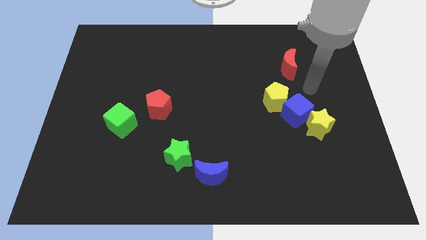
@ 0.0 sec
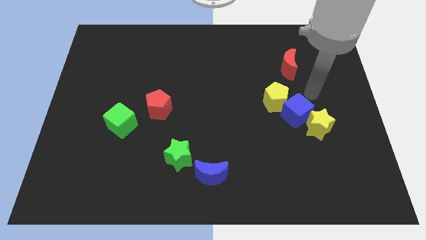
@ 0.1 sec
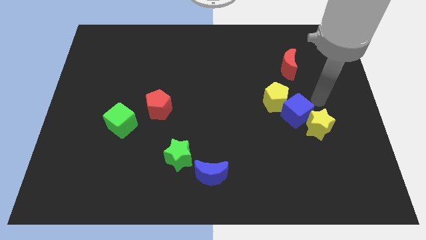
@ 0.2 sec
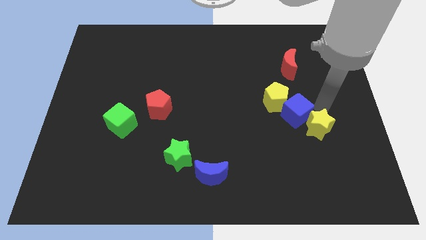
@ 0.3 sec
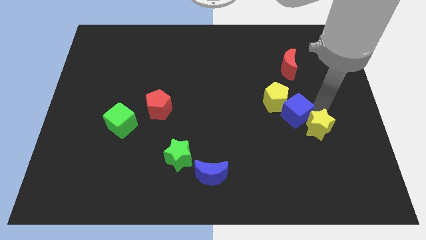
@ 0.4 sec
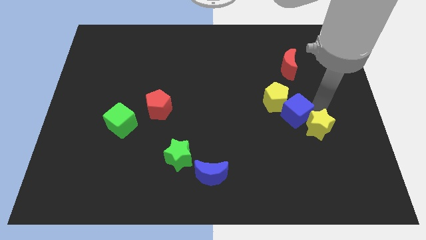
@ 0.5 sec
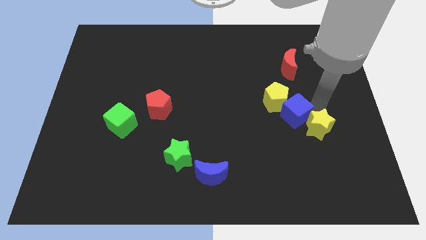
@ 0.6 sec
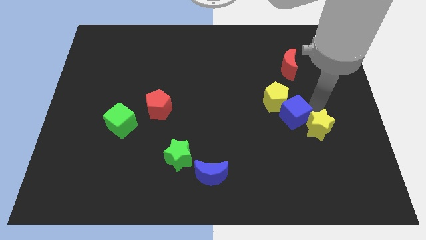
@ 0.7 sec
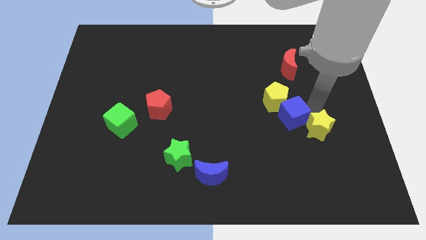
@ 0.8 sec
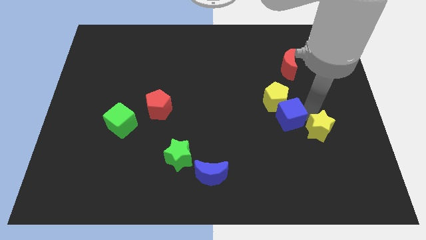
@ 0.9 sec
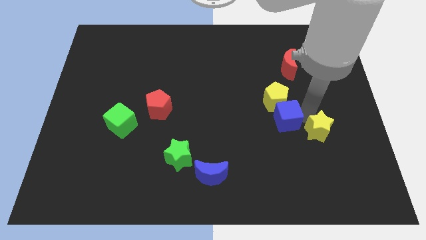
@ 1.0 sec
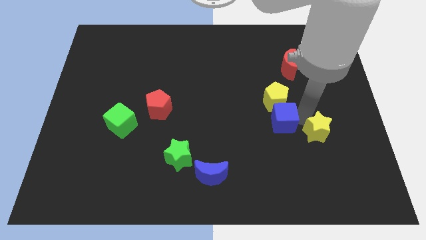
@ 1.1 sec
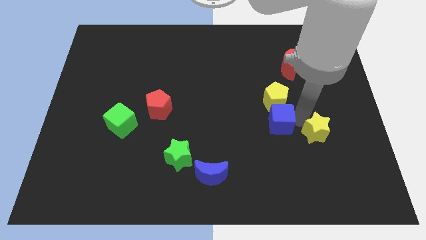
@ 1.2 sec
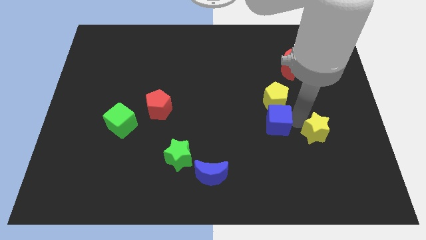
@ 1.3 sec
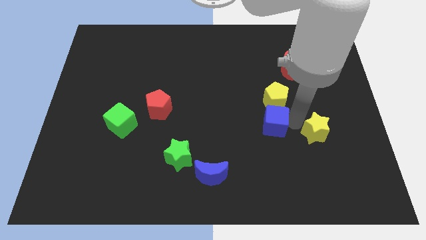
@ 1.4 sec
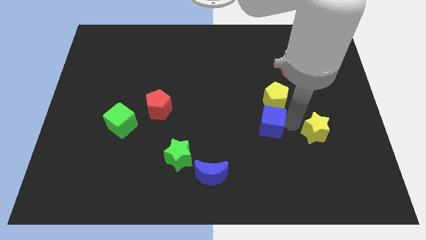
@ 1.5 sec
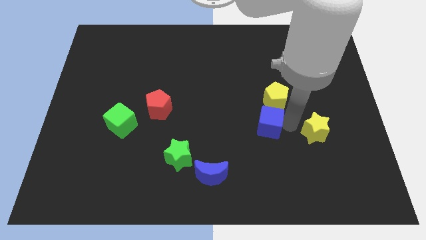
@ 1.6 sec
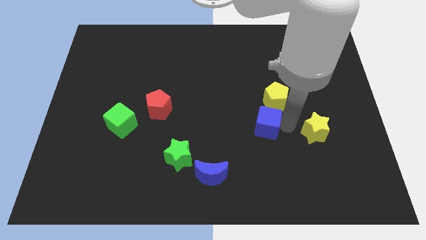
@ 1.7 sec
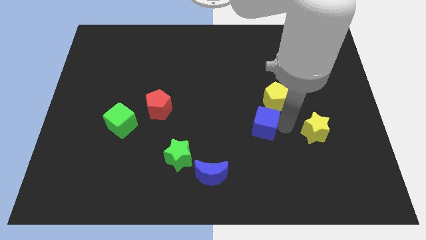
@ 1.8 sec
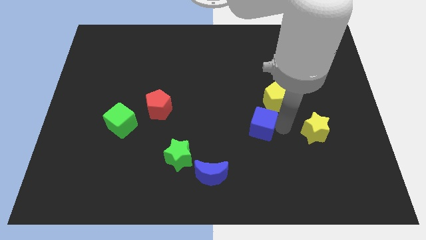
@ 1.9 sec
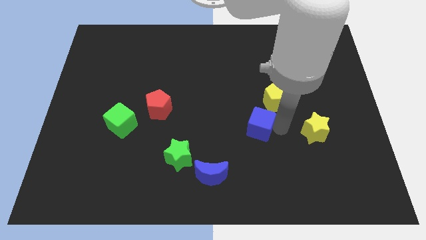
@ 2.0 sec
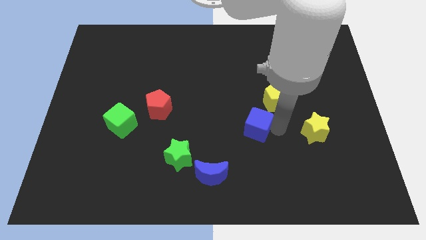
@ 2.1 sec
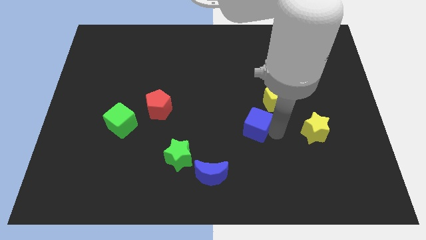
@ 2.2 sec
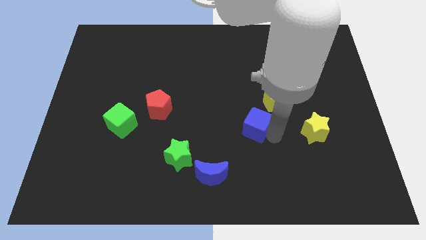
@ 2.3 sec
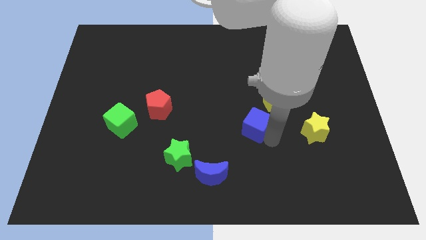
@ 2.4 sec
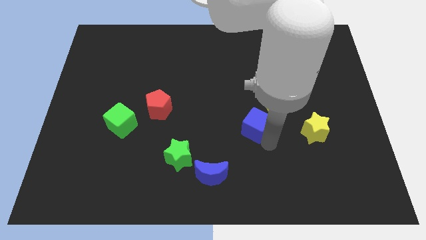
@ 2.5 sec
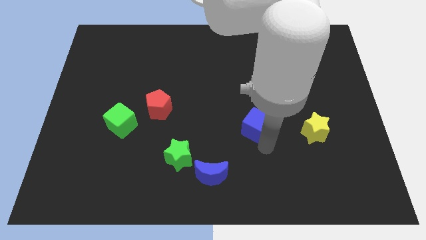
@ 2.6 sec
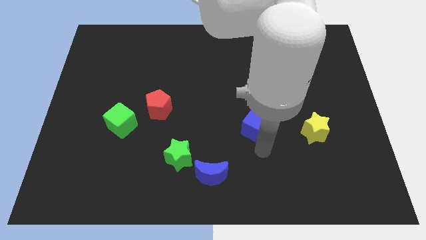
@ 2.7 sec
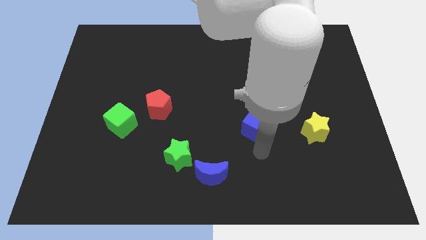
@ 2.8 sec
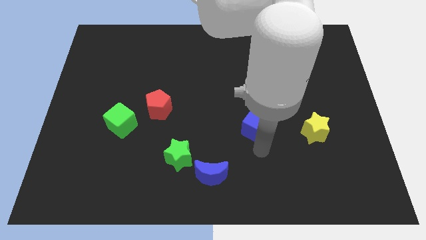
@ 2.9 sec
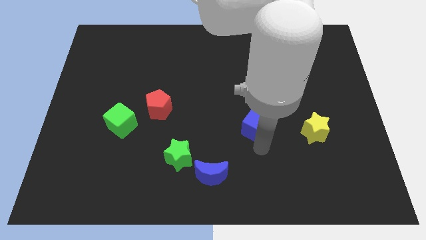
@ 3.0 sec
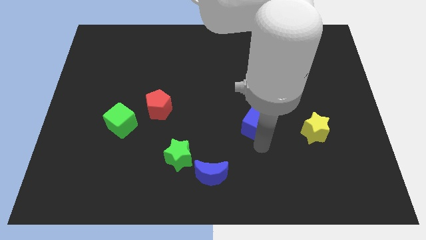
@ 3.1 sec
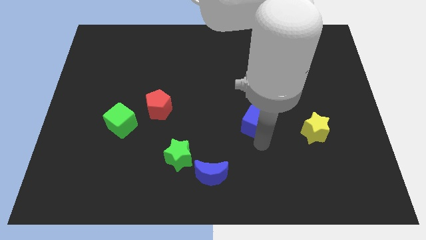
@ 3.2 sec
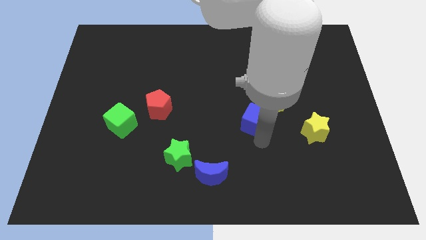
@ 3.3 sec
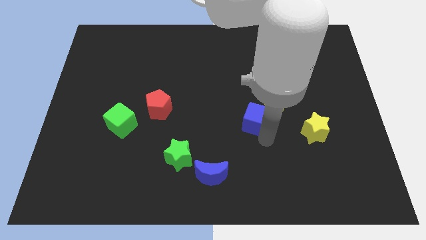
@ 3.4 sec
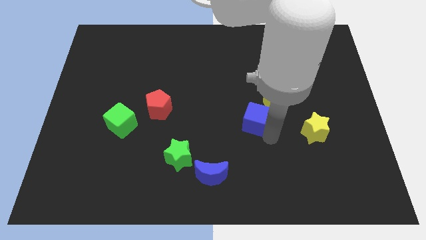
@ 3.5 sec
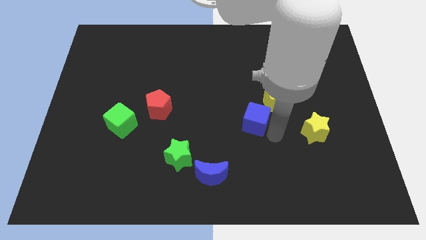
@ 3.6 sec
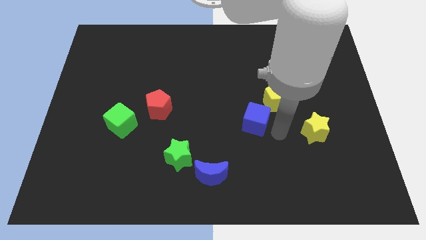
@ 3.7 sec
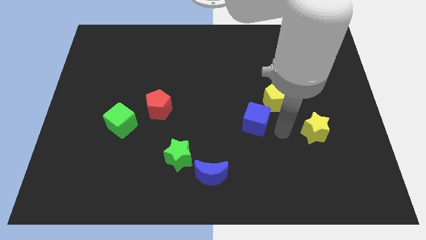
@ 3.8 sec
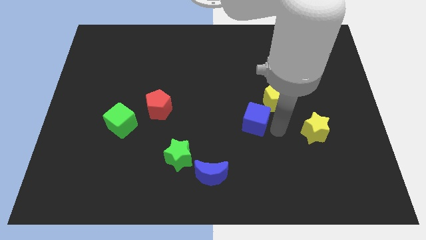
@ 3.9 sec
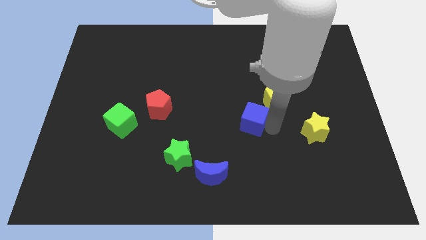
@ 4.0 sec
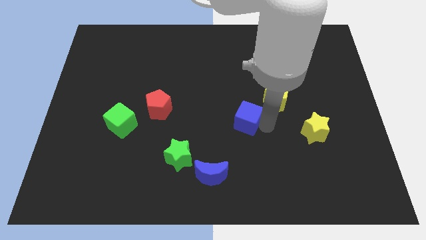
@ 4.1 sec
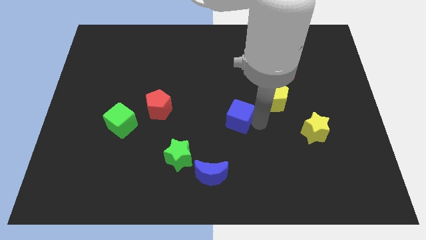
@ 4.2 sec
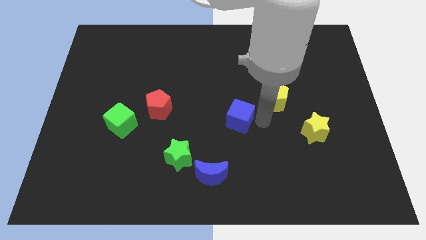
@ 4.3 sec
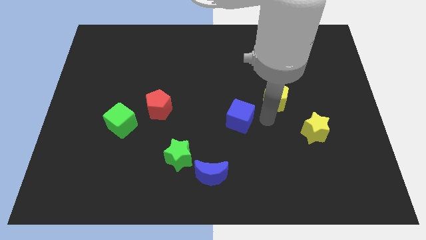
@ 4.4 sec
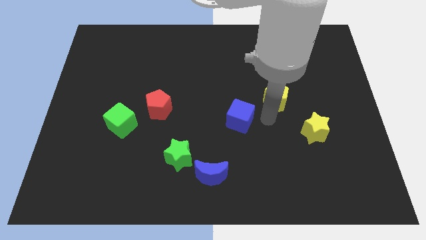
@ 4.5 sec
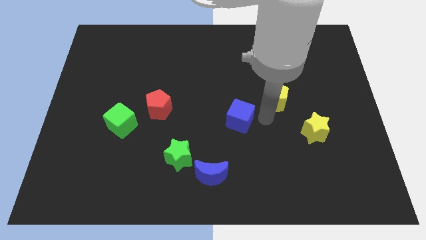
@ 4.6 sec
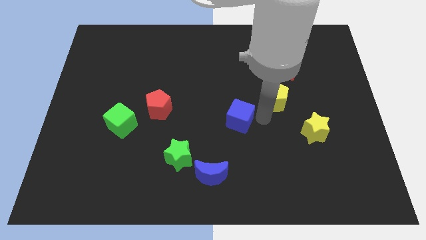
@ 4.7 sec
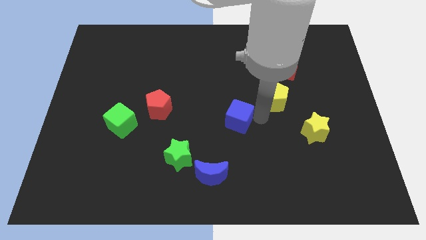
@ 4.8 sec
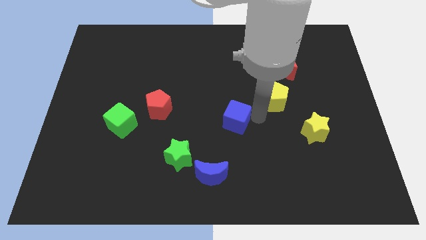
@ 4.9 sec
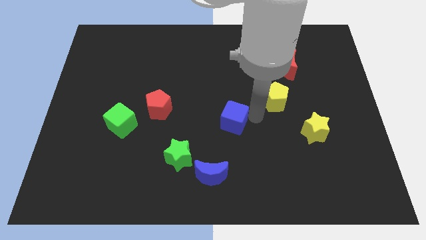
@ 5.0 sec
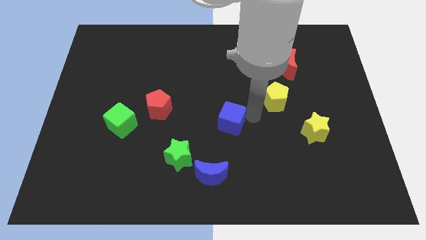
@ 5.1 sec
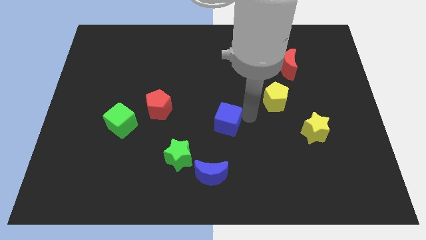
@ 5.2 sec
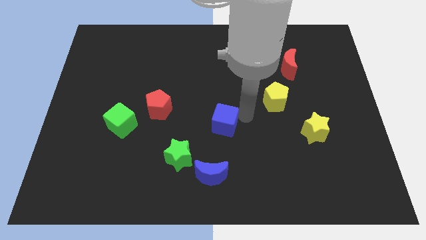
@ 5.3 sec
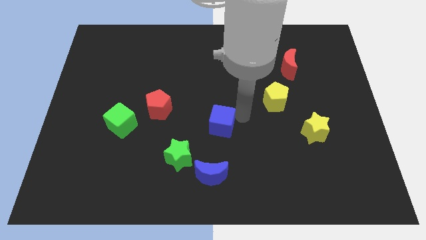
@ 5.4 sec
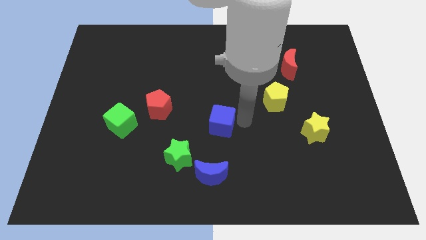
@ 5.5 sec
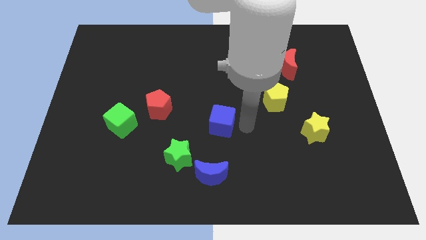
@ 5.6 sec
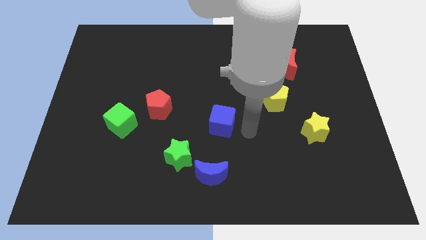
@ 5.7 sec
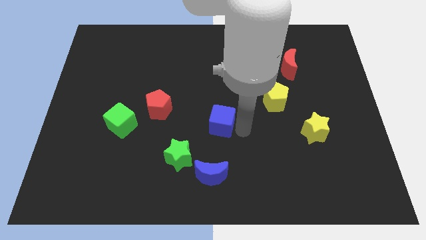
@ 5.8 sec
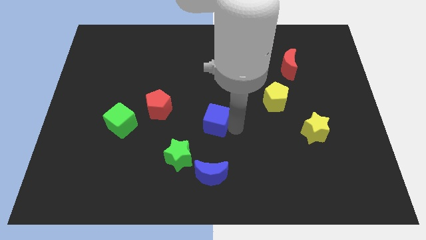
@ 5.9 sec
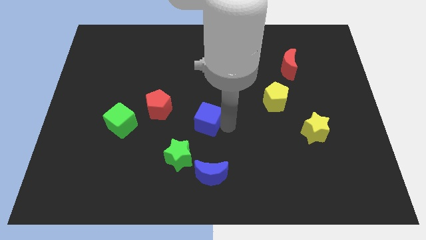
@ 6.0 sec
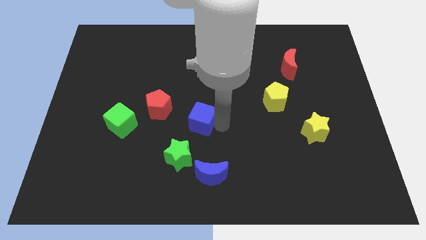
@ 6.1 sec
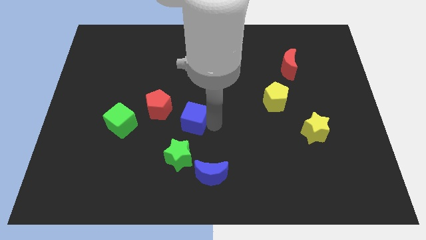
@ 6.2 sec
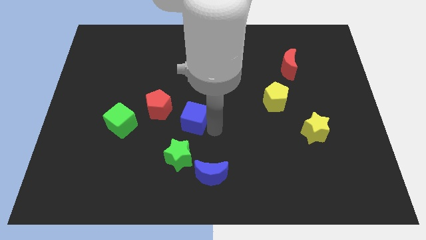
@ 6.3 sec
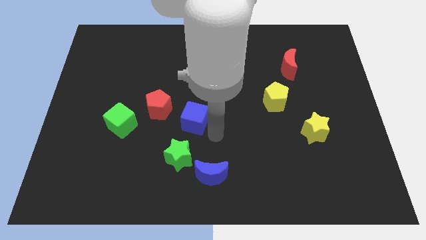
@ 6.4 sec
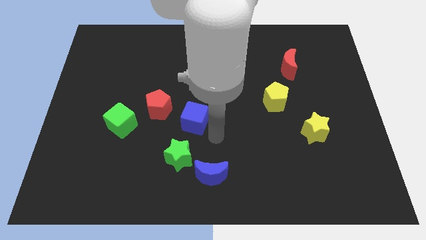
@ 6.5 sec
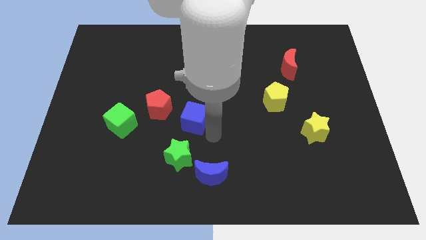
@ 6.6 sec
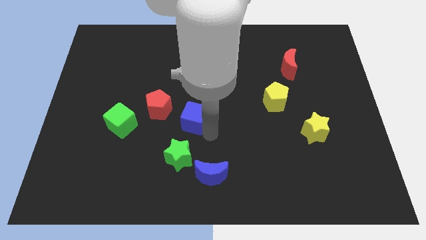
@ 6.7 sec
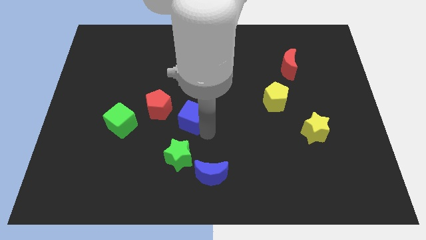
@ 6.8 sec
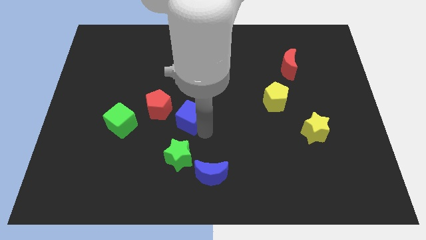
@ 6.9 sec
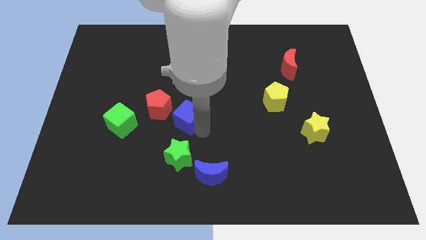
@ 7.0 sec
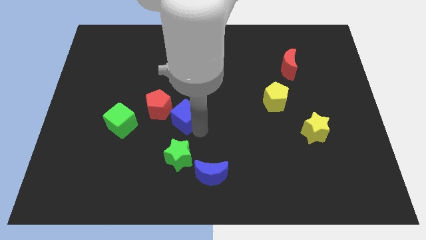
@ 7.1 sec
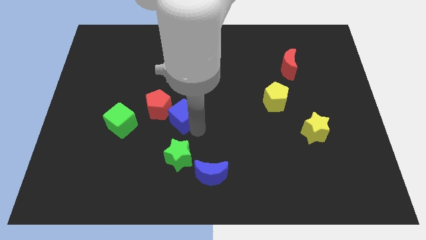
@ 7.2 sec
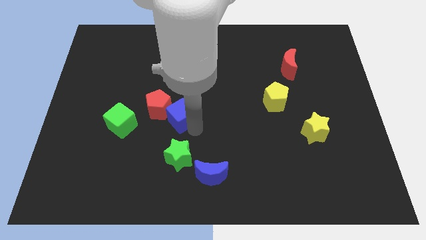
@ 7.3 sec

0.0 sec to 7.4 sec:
push the blue cube next to the red pentagon
